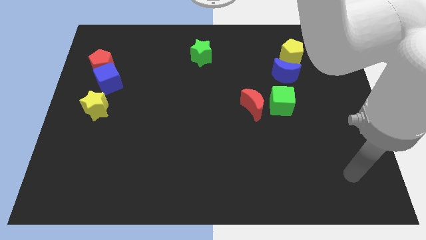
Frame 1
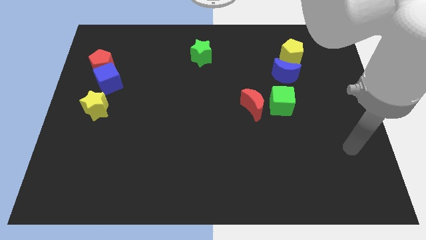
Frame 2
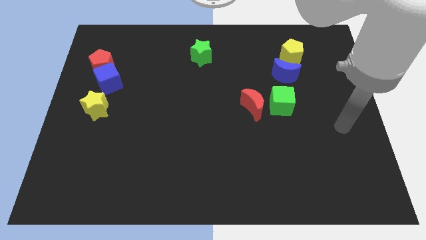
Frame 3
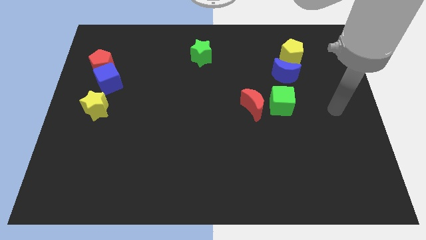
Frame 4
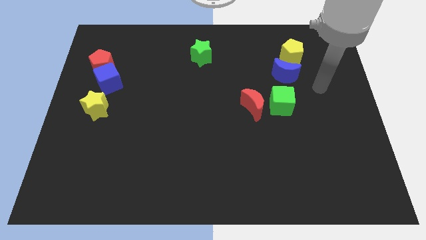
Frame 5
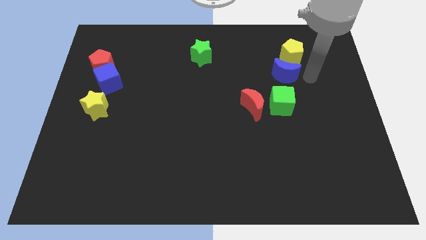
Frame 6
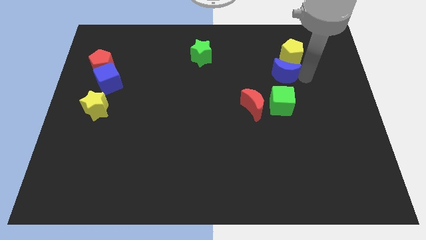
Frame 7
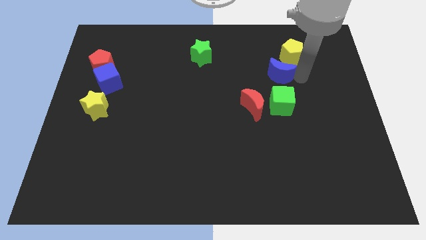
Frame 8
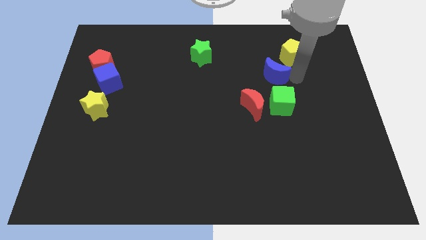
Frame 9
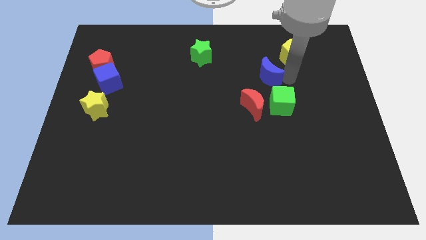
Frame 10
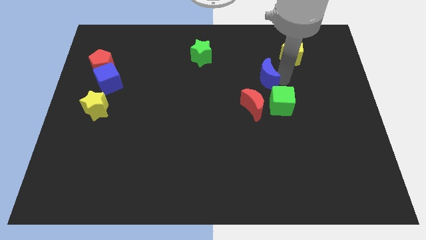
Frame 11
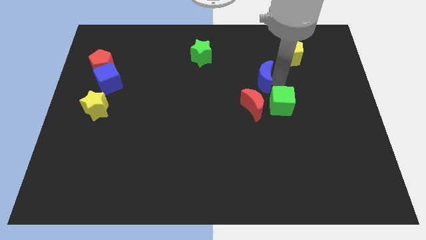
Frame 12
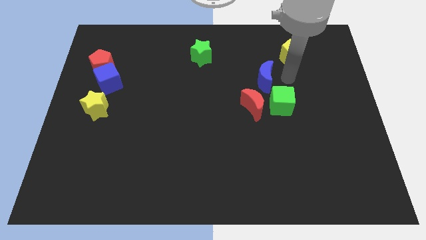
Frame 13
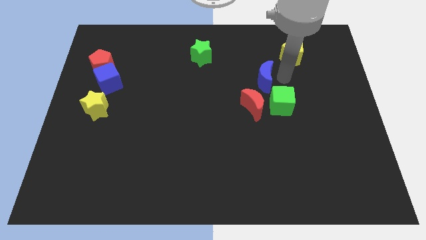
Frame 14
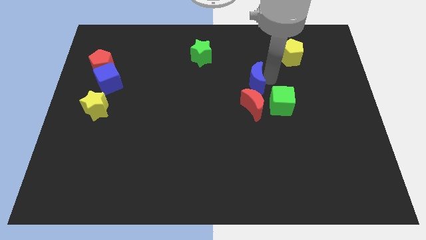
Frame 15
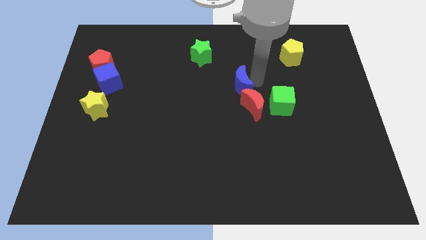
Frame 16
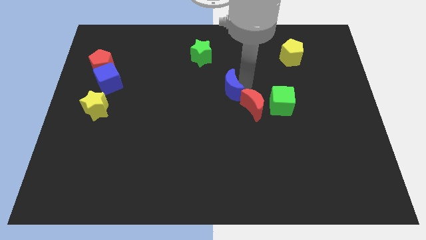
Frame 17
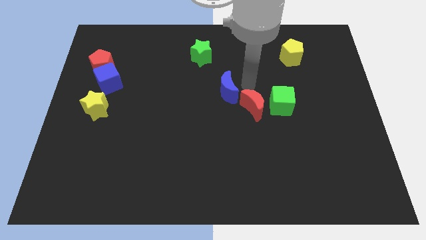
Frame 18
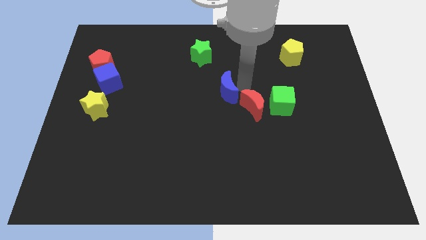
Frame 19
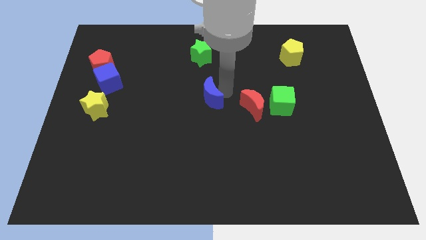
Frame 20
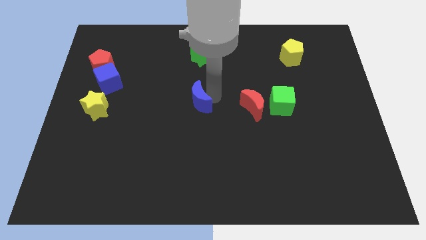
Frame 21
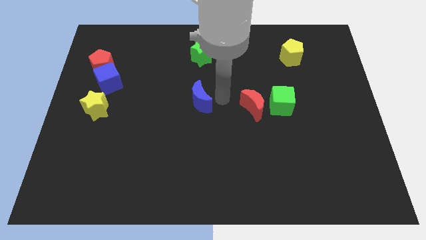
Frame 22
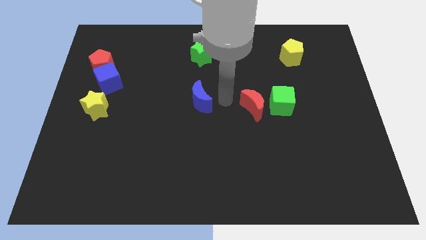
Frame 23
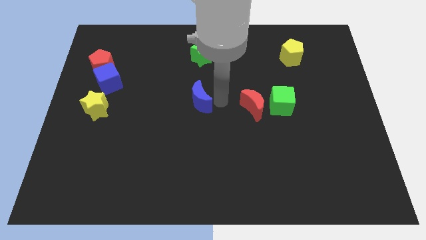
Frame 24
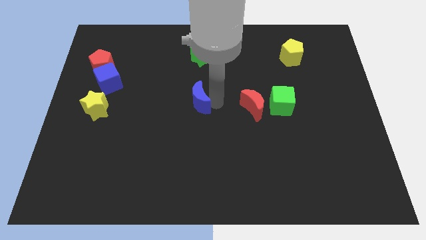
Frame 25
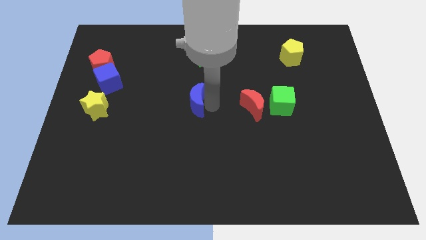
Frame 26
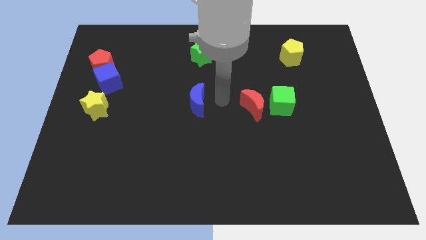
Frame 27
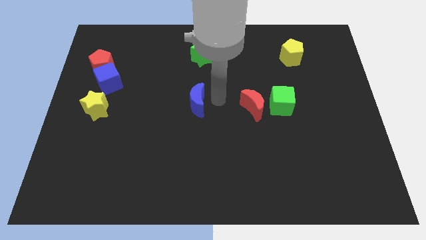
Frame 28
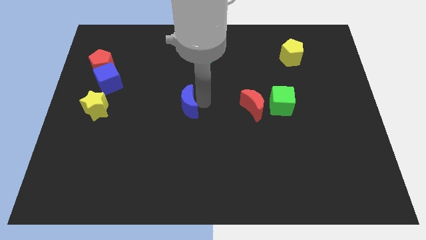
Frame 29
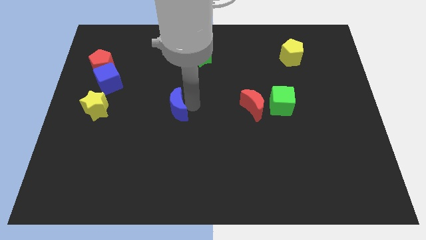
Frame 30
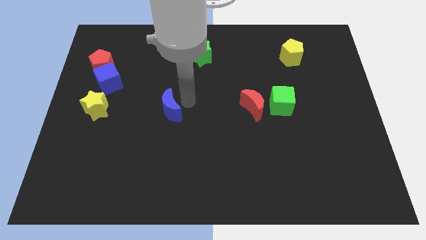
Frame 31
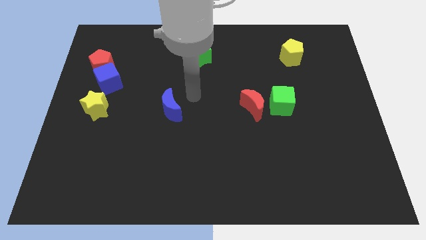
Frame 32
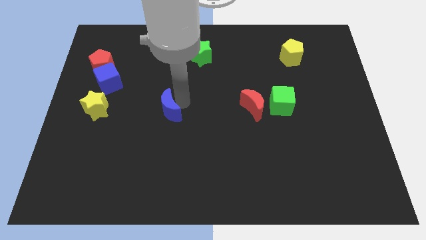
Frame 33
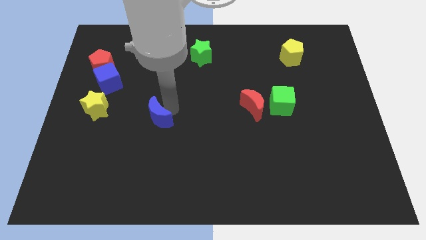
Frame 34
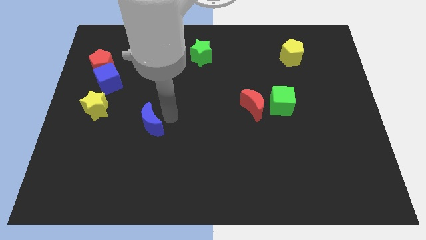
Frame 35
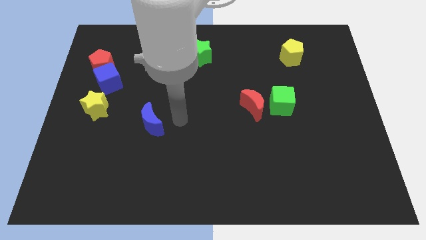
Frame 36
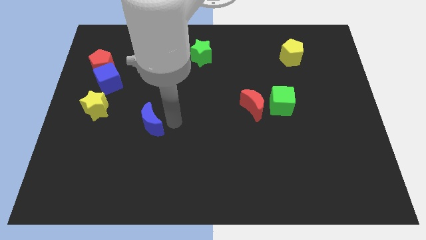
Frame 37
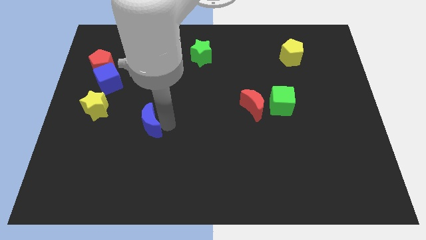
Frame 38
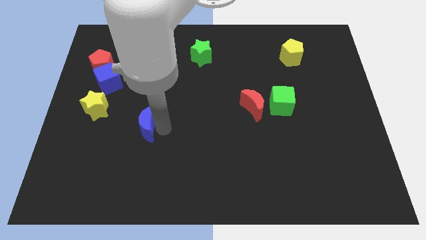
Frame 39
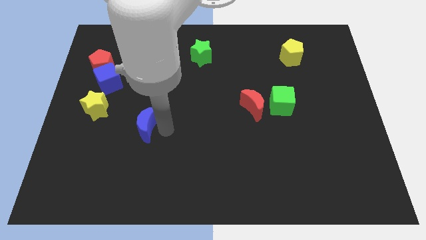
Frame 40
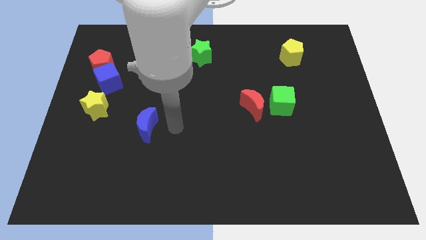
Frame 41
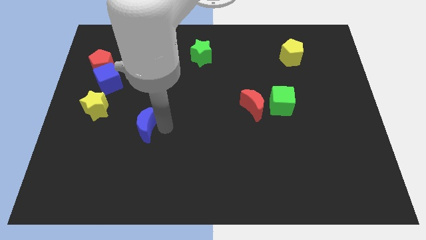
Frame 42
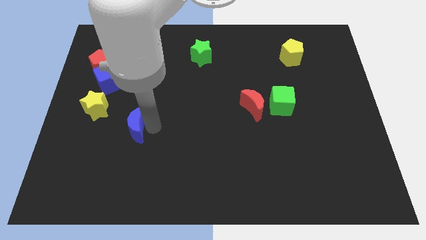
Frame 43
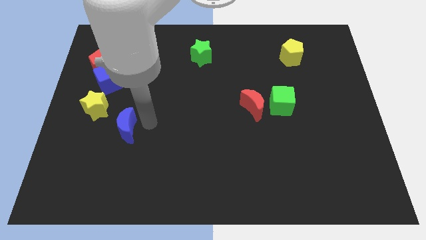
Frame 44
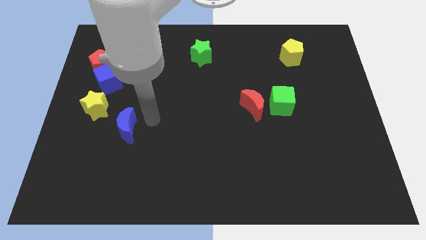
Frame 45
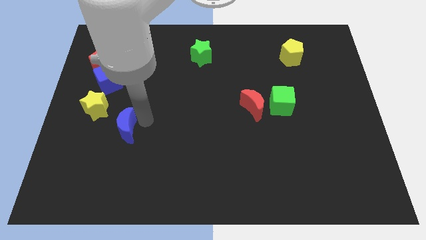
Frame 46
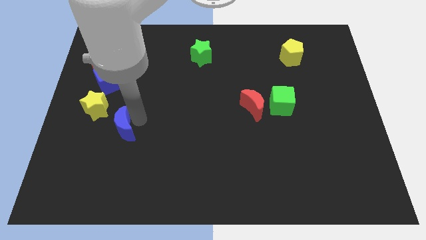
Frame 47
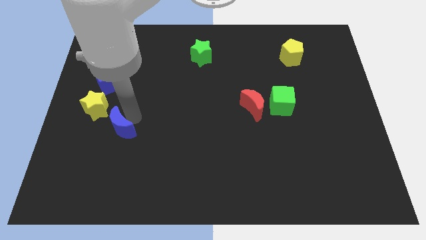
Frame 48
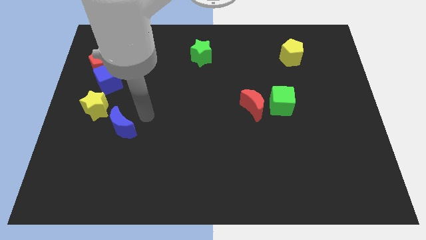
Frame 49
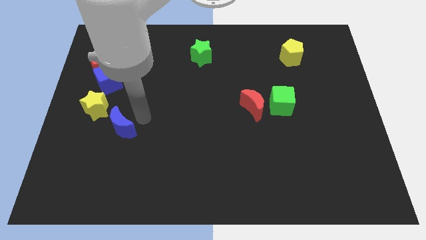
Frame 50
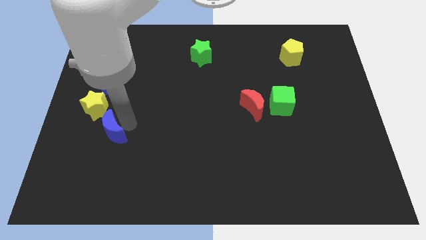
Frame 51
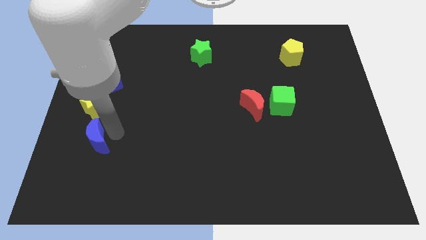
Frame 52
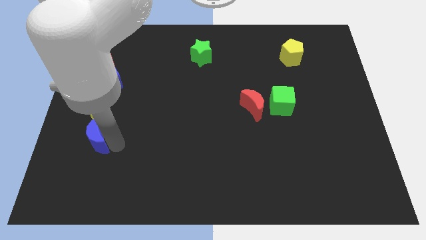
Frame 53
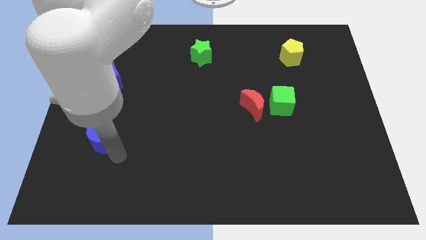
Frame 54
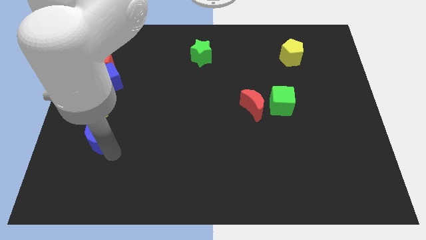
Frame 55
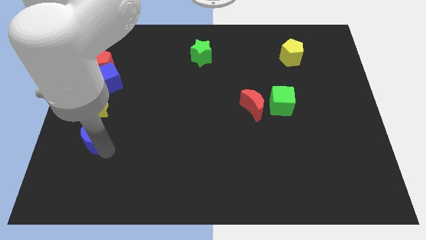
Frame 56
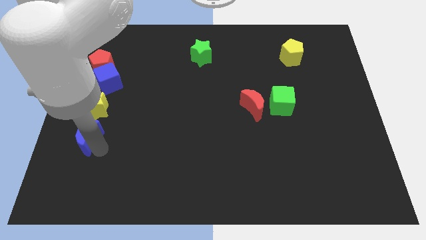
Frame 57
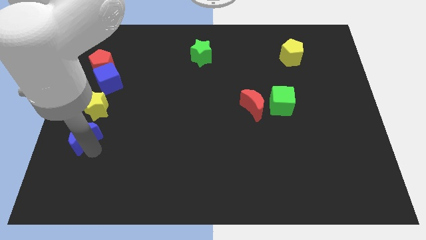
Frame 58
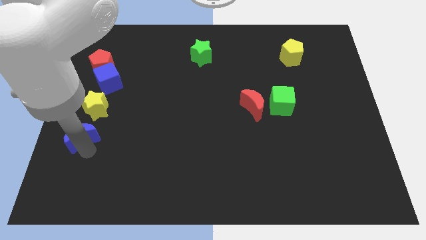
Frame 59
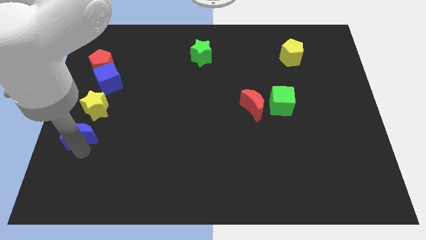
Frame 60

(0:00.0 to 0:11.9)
slide the blue moon to the center left

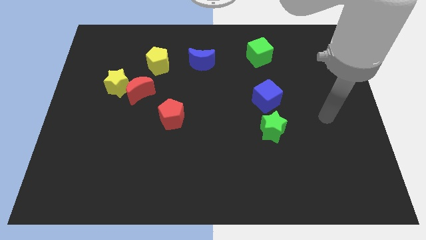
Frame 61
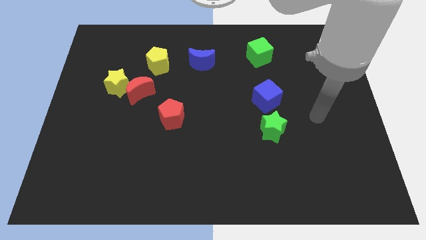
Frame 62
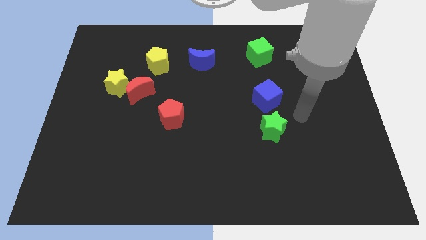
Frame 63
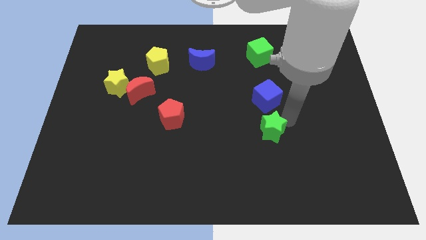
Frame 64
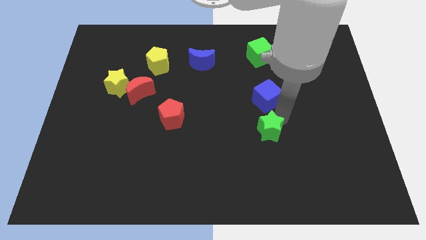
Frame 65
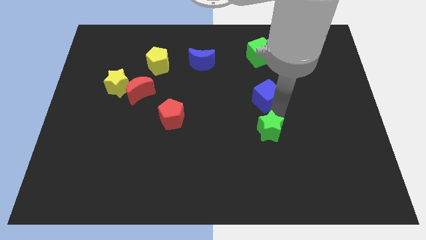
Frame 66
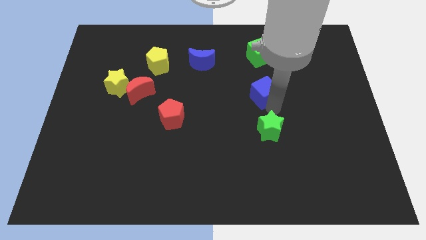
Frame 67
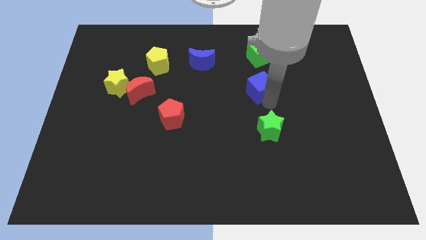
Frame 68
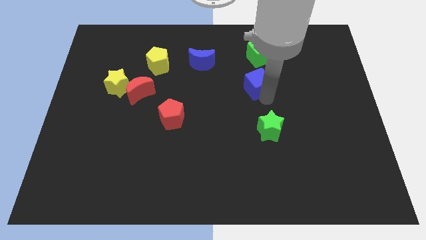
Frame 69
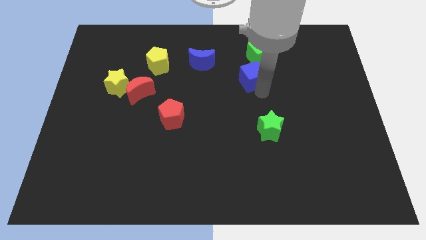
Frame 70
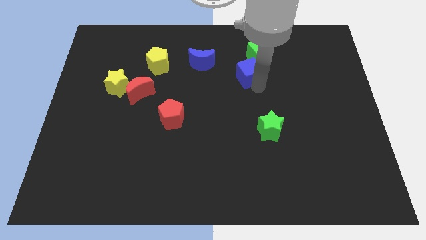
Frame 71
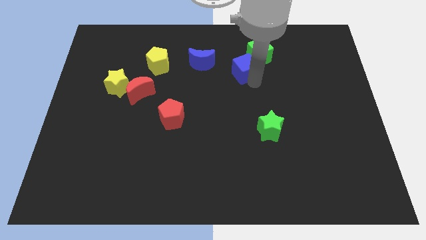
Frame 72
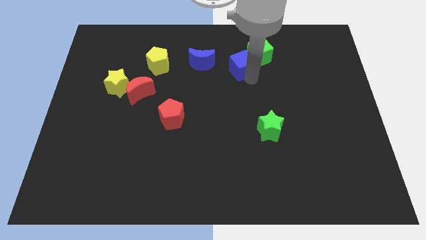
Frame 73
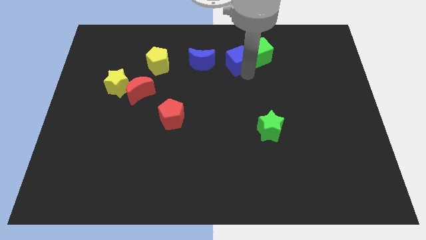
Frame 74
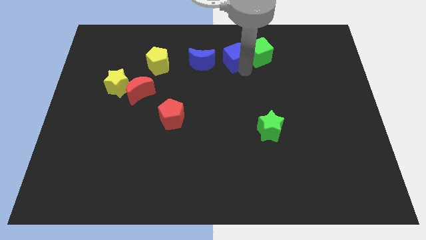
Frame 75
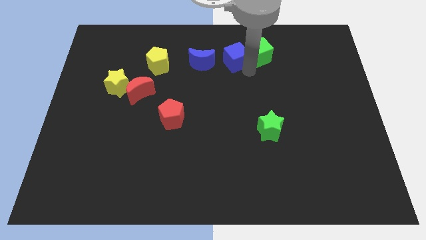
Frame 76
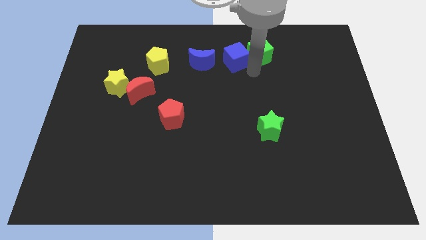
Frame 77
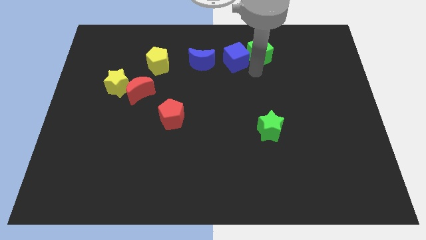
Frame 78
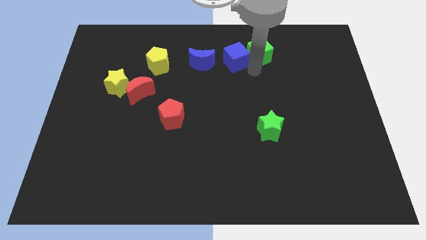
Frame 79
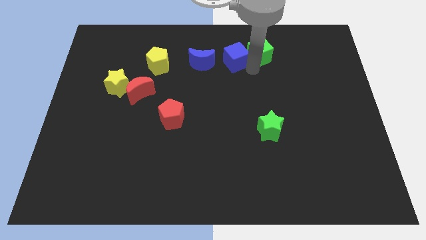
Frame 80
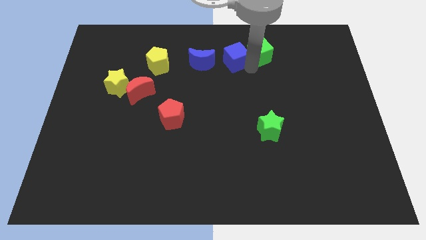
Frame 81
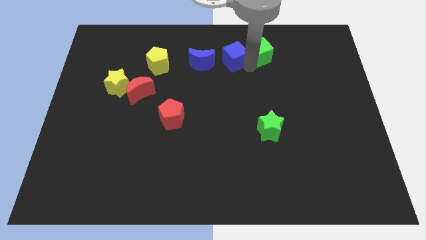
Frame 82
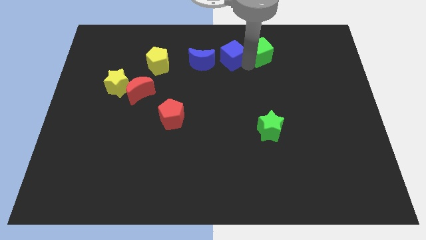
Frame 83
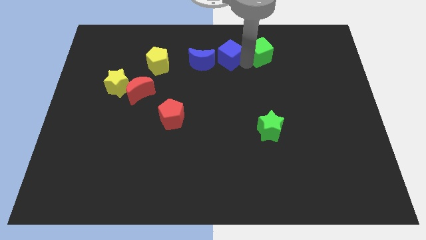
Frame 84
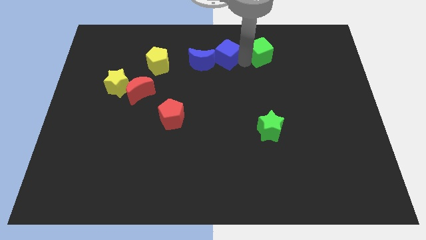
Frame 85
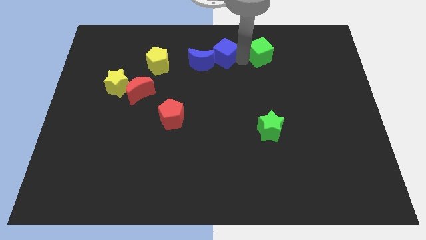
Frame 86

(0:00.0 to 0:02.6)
put the blue cube to the top
